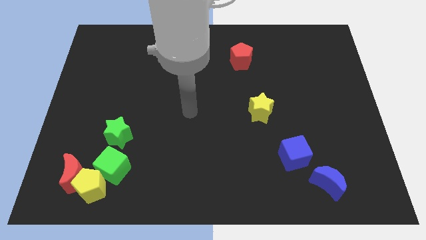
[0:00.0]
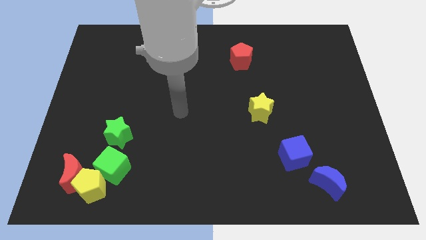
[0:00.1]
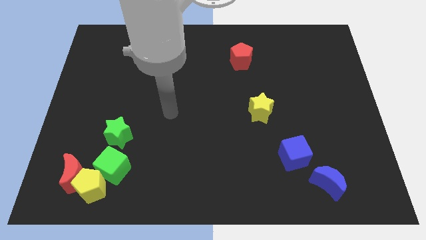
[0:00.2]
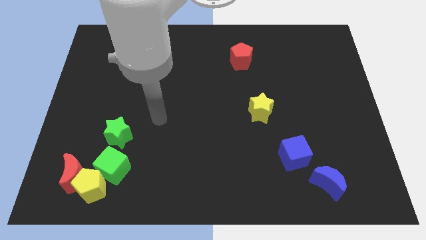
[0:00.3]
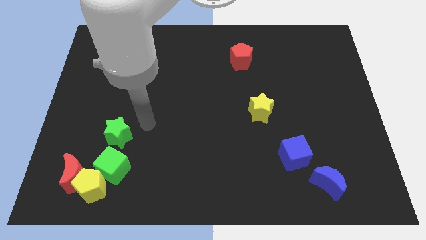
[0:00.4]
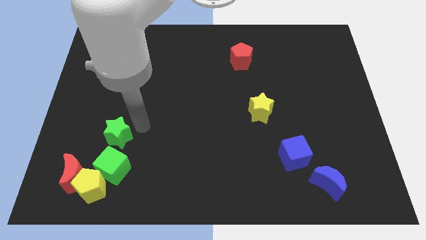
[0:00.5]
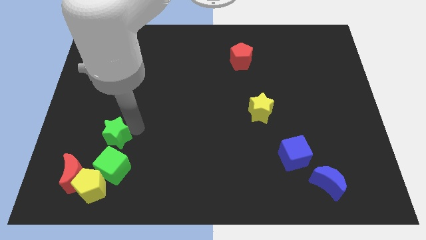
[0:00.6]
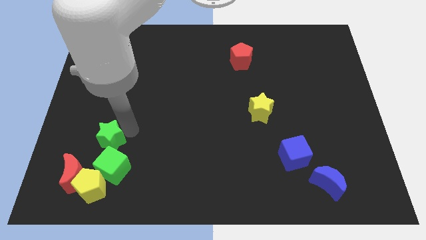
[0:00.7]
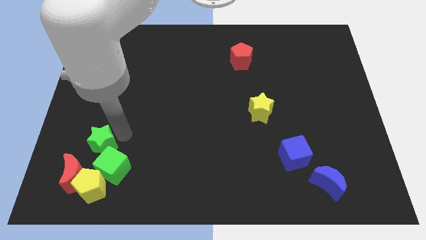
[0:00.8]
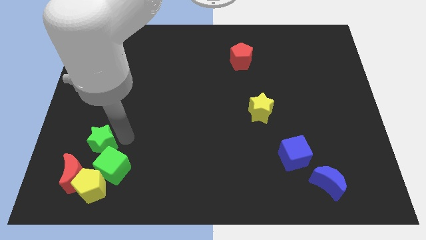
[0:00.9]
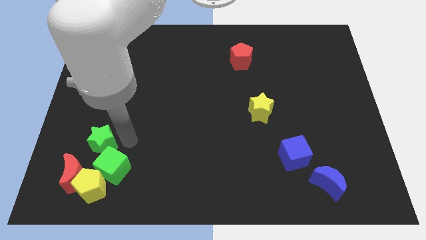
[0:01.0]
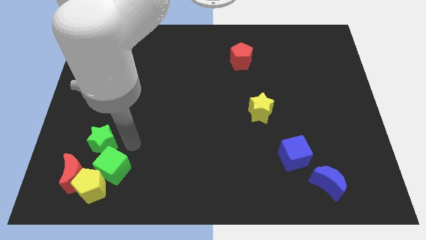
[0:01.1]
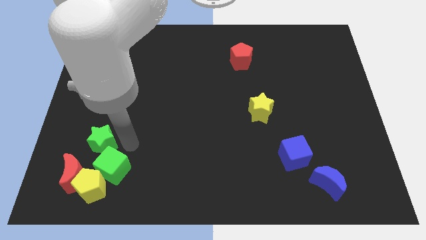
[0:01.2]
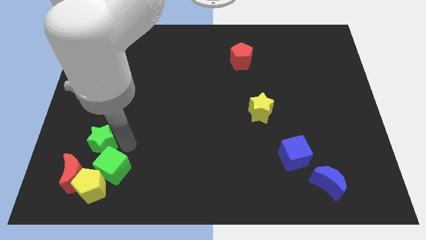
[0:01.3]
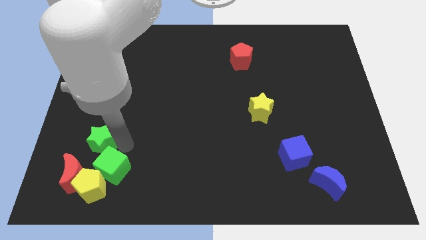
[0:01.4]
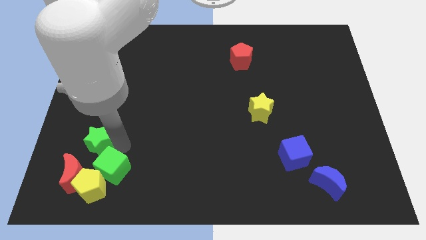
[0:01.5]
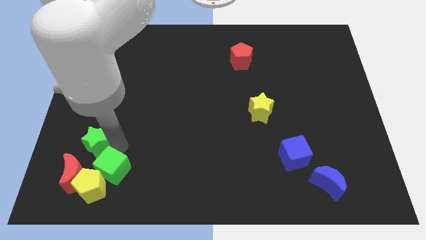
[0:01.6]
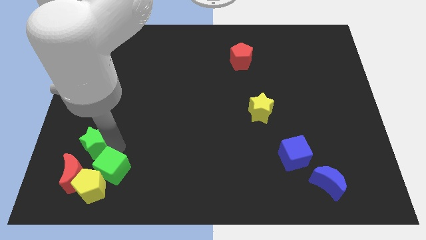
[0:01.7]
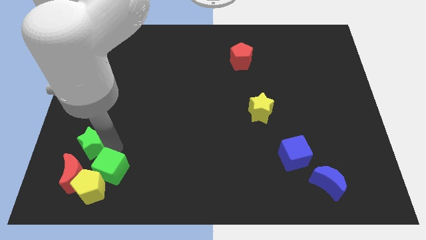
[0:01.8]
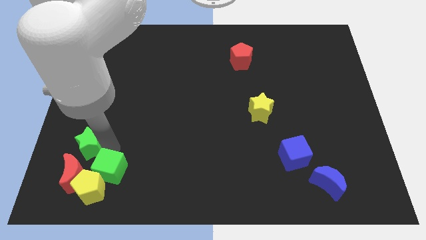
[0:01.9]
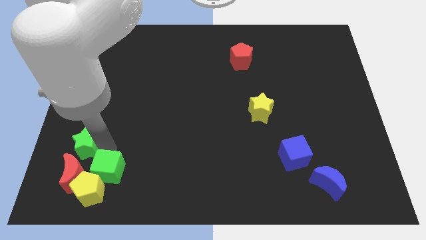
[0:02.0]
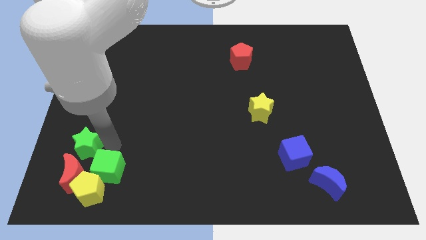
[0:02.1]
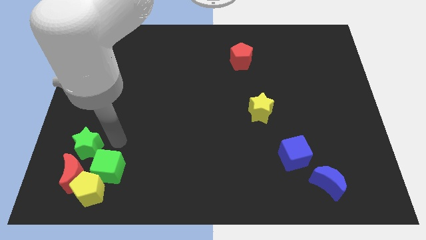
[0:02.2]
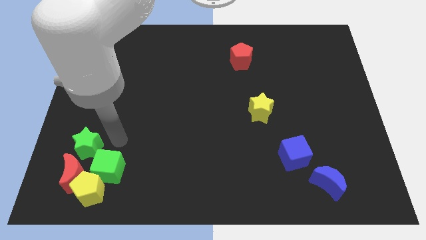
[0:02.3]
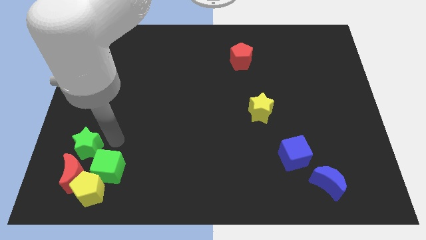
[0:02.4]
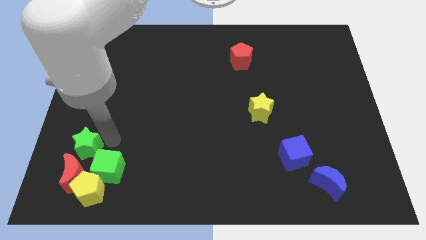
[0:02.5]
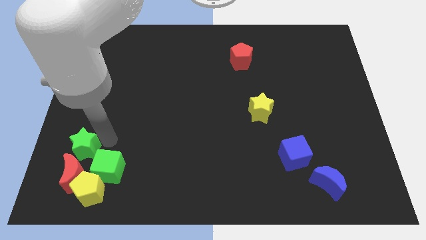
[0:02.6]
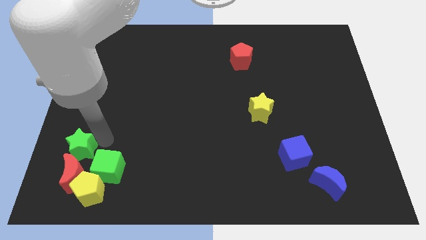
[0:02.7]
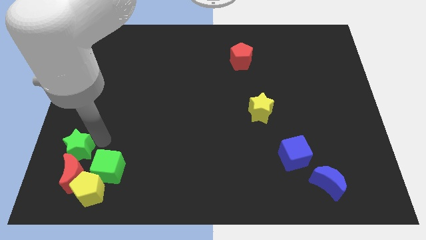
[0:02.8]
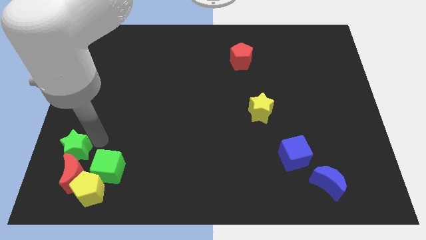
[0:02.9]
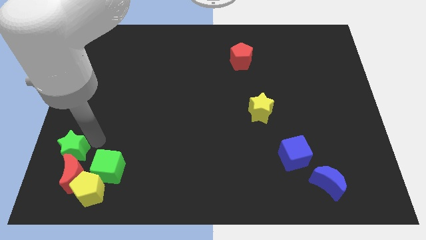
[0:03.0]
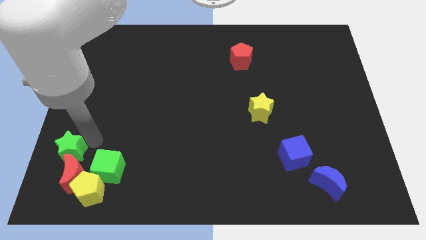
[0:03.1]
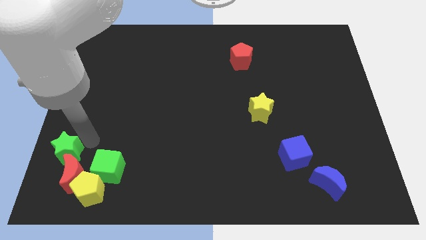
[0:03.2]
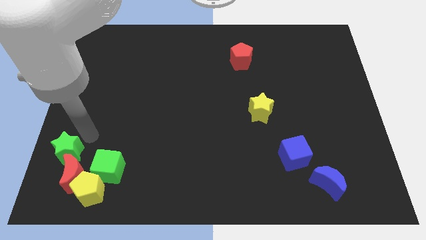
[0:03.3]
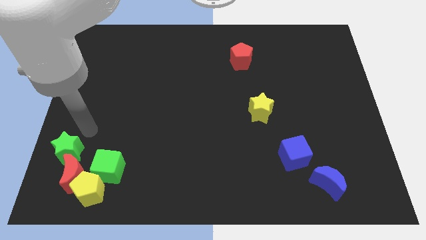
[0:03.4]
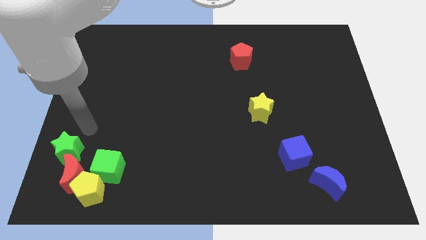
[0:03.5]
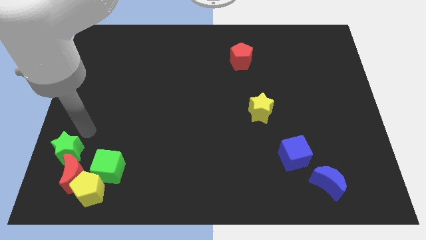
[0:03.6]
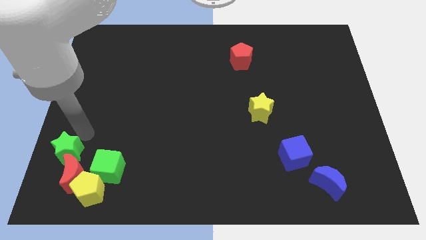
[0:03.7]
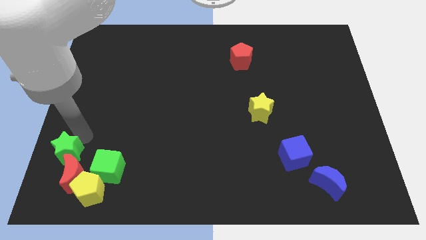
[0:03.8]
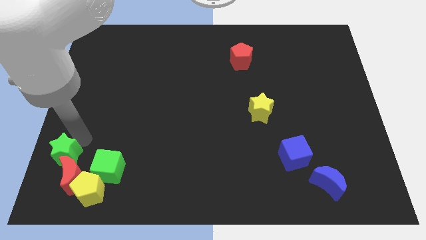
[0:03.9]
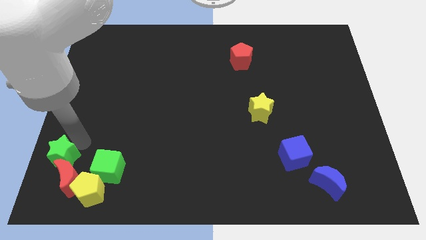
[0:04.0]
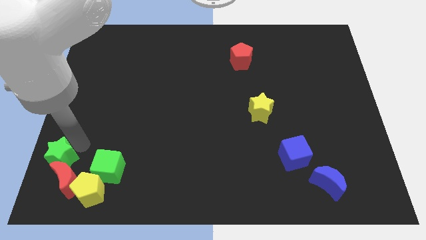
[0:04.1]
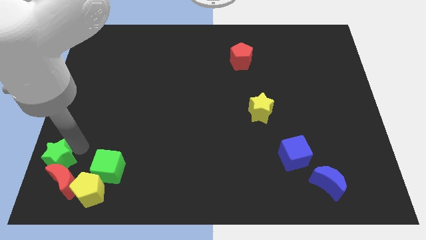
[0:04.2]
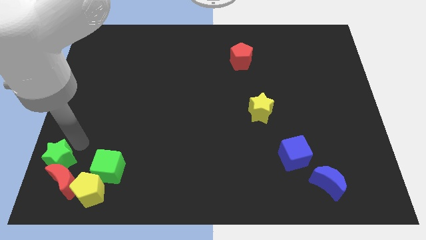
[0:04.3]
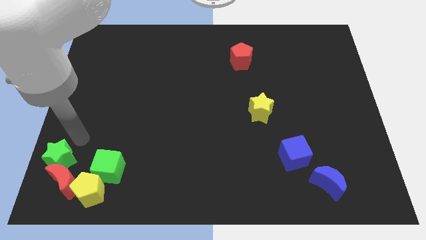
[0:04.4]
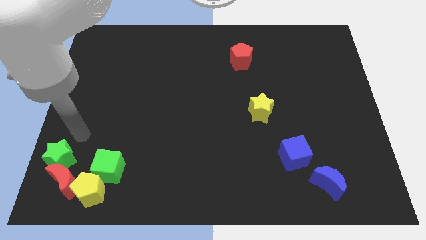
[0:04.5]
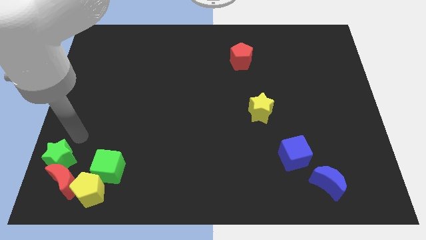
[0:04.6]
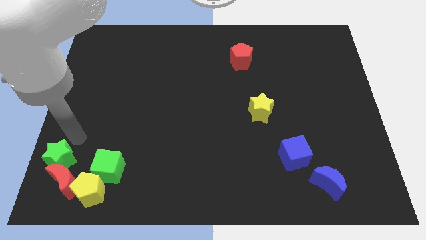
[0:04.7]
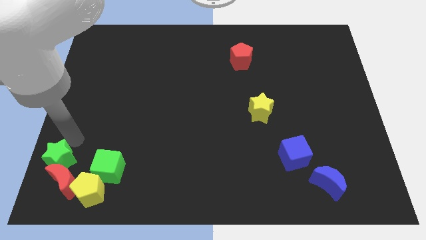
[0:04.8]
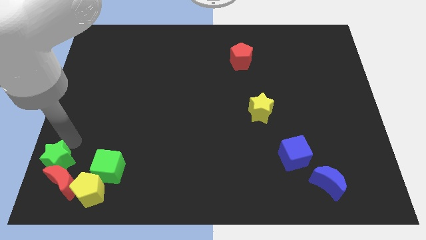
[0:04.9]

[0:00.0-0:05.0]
push the green star to the bottom left corner
